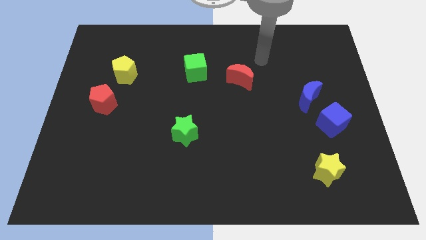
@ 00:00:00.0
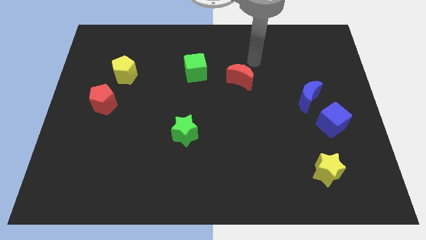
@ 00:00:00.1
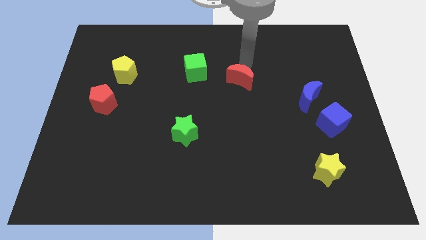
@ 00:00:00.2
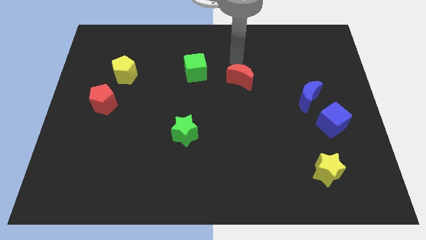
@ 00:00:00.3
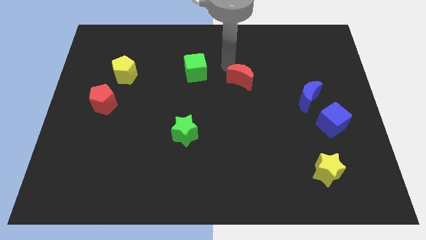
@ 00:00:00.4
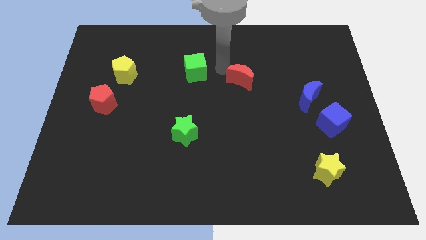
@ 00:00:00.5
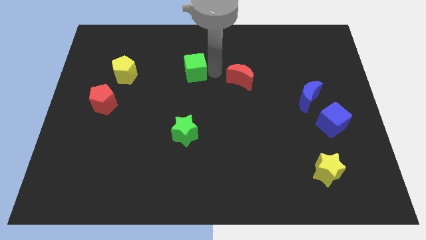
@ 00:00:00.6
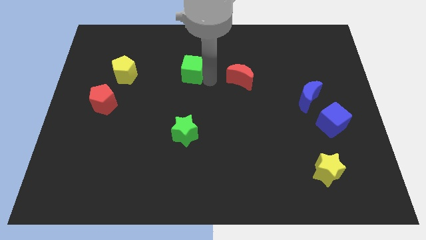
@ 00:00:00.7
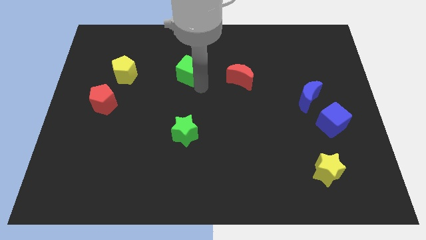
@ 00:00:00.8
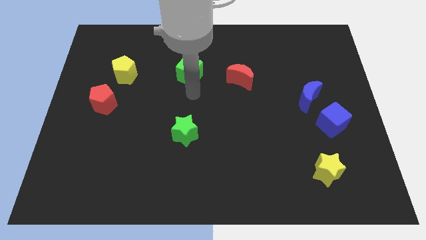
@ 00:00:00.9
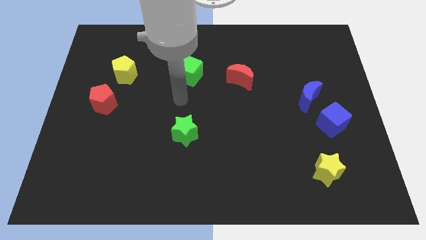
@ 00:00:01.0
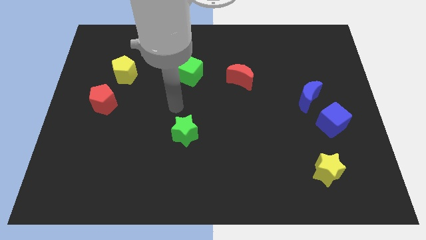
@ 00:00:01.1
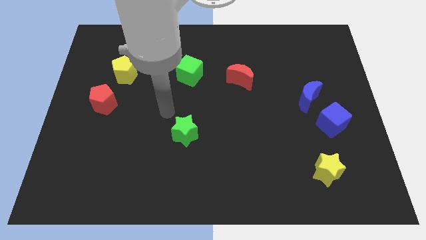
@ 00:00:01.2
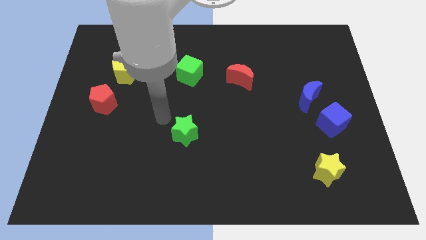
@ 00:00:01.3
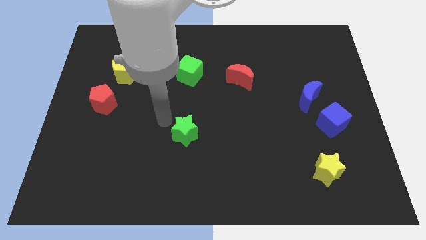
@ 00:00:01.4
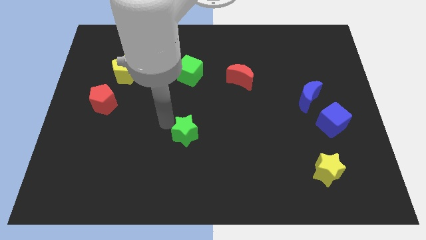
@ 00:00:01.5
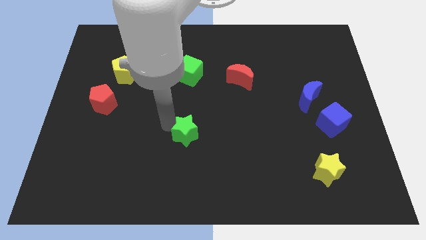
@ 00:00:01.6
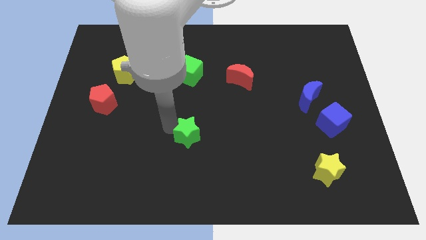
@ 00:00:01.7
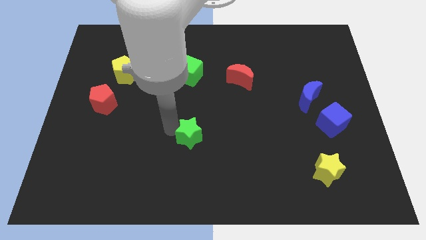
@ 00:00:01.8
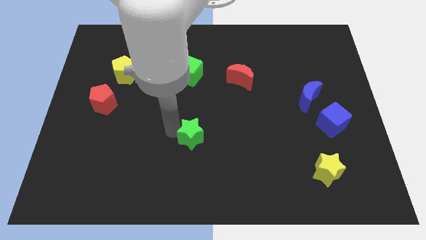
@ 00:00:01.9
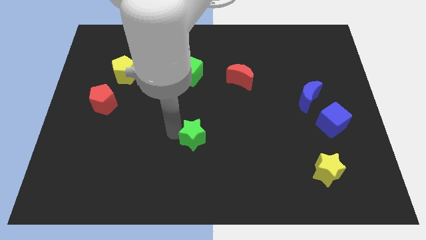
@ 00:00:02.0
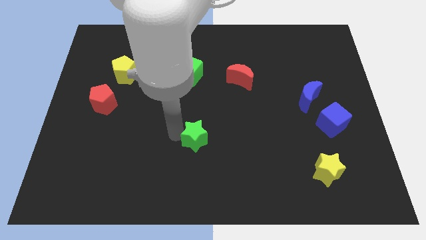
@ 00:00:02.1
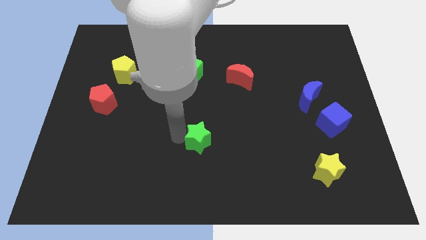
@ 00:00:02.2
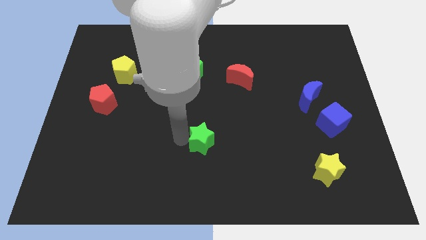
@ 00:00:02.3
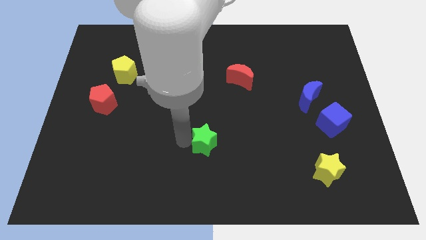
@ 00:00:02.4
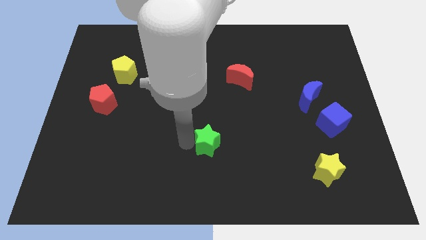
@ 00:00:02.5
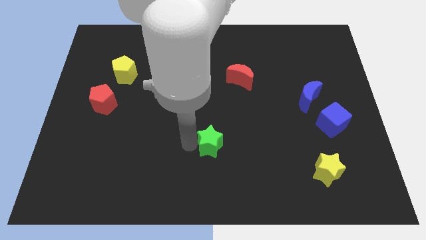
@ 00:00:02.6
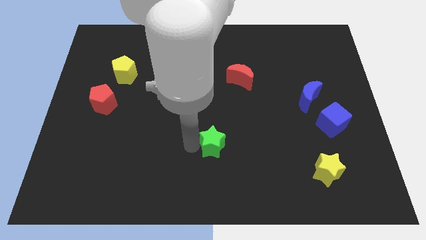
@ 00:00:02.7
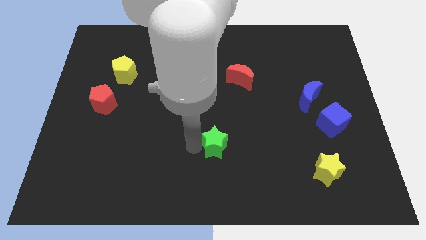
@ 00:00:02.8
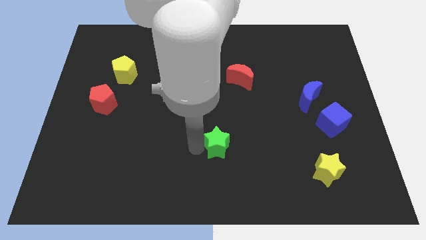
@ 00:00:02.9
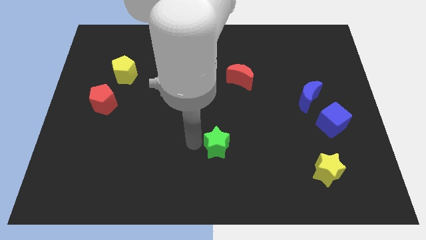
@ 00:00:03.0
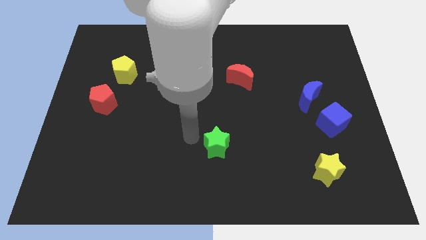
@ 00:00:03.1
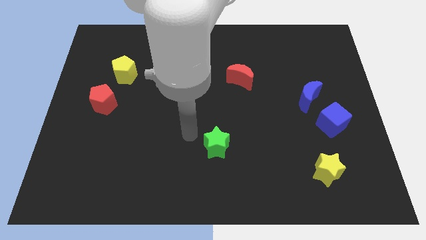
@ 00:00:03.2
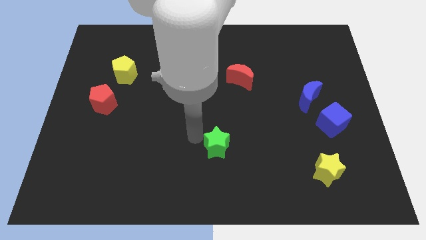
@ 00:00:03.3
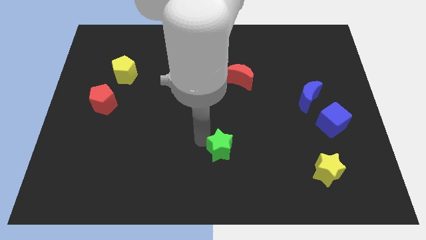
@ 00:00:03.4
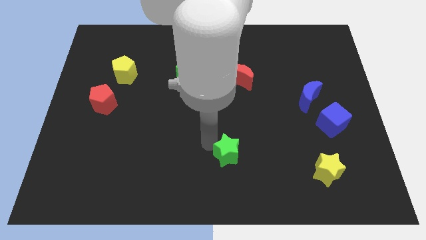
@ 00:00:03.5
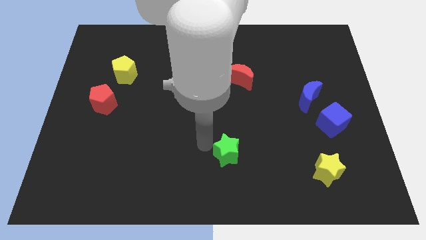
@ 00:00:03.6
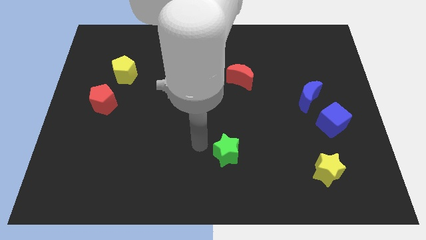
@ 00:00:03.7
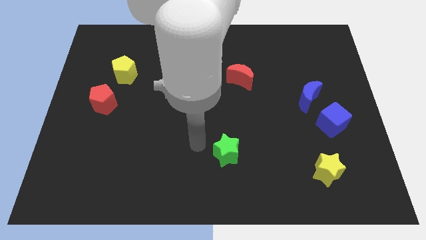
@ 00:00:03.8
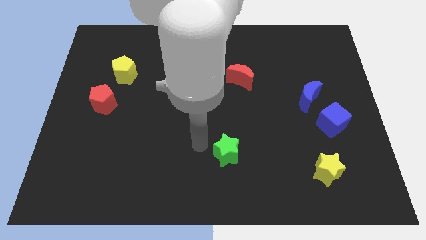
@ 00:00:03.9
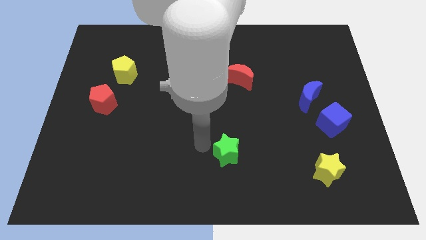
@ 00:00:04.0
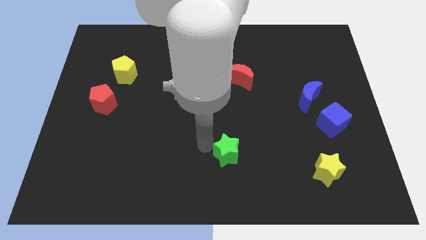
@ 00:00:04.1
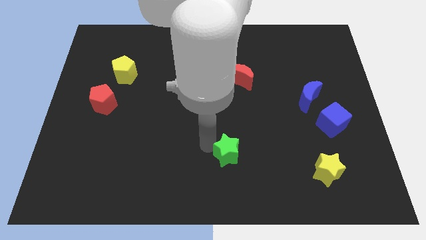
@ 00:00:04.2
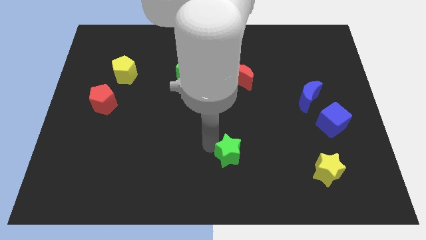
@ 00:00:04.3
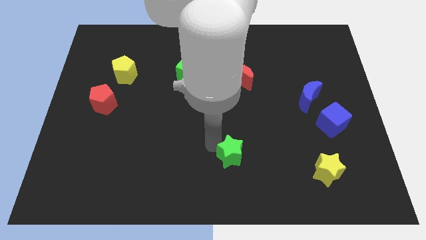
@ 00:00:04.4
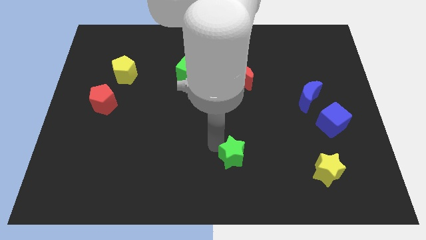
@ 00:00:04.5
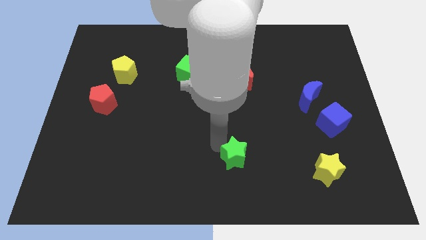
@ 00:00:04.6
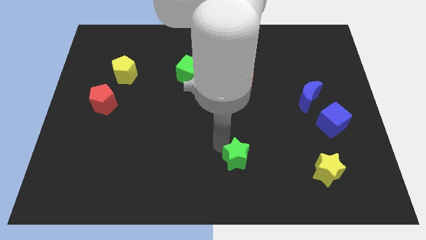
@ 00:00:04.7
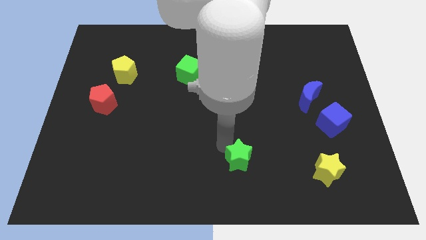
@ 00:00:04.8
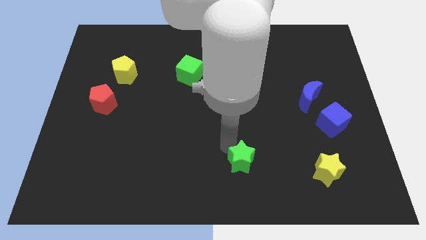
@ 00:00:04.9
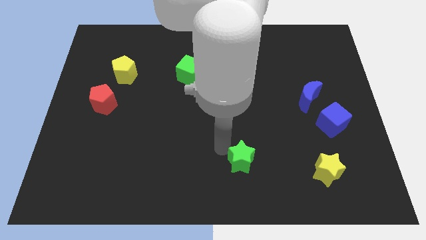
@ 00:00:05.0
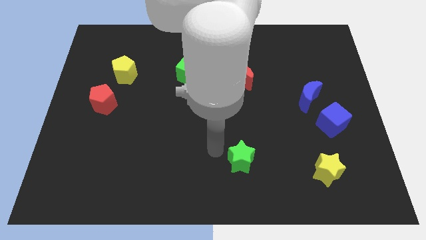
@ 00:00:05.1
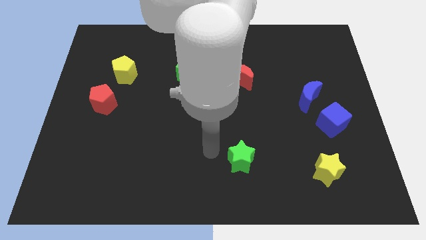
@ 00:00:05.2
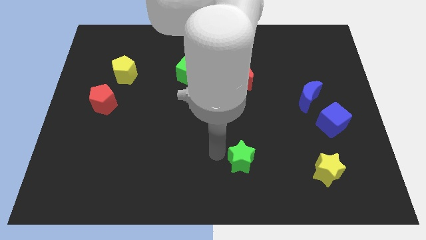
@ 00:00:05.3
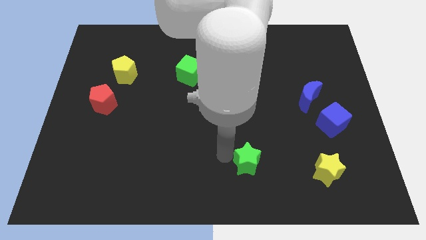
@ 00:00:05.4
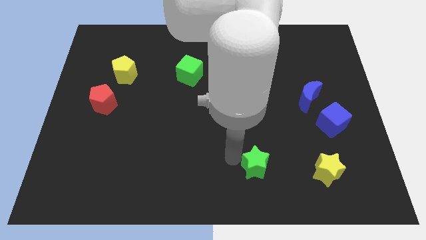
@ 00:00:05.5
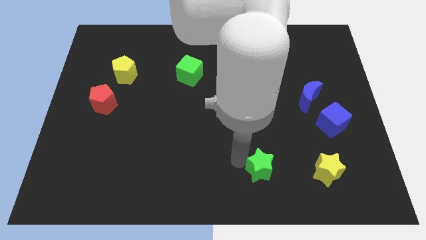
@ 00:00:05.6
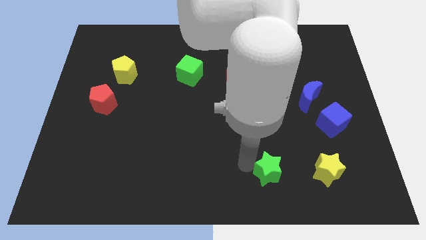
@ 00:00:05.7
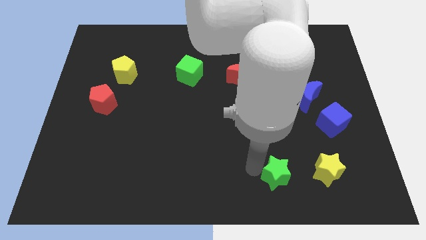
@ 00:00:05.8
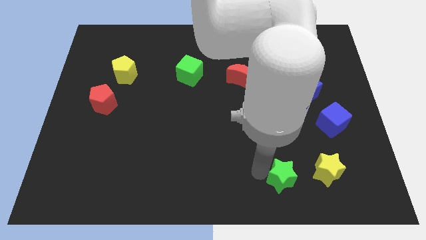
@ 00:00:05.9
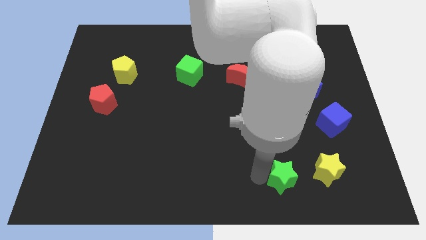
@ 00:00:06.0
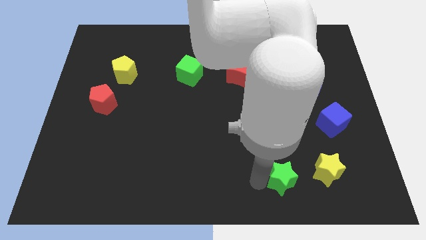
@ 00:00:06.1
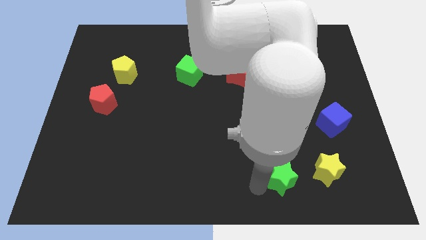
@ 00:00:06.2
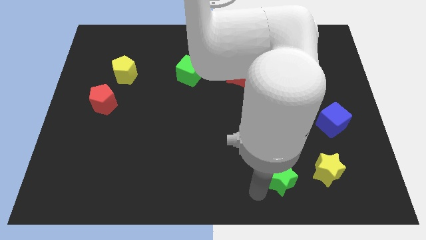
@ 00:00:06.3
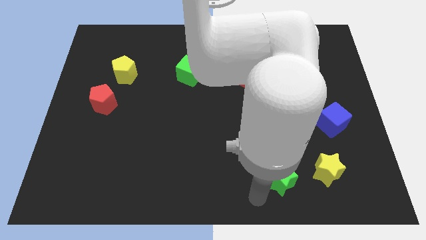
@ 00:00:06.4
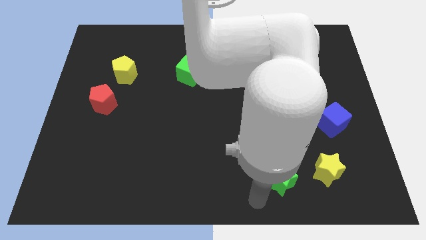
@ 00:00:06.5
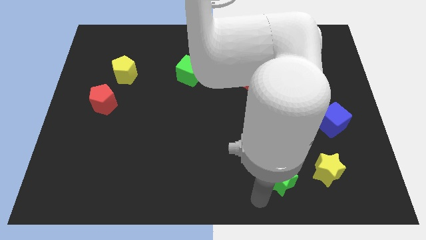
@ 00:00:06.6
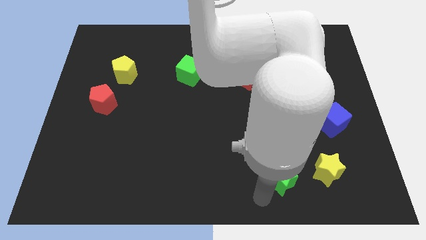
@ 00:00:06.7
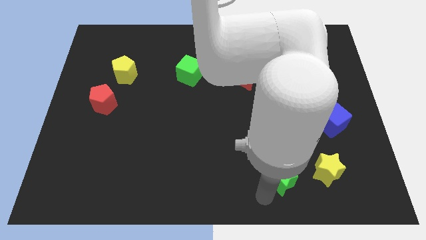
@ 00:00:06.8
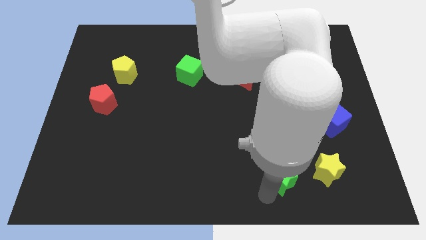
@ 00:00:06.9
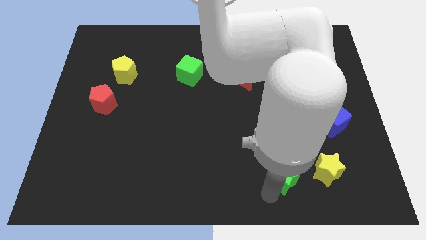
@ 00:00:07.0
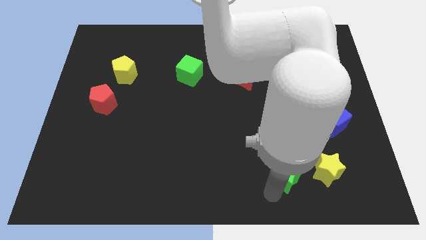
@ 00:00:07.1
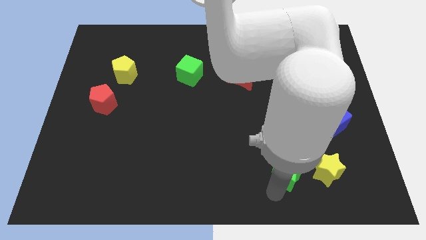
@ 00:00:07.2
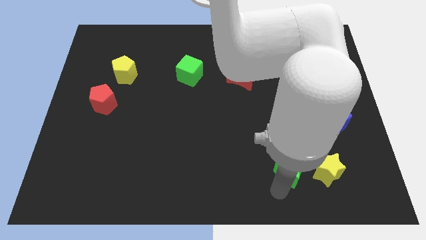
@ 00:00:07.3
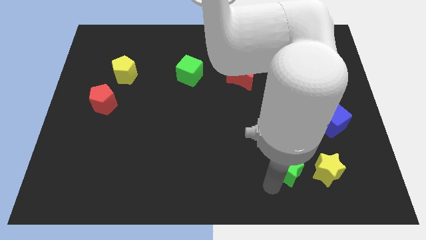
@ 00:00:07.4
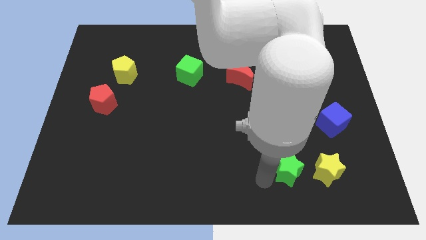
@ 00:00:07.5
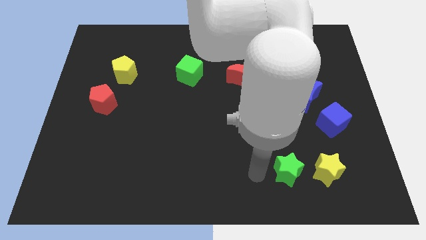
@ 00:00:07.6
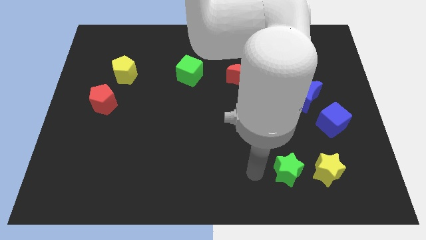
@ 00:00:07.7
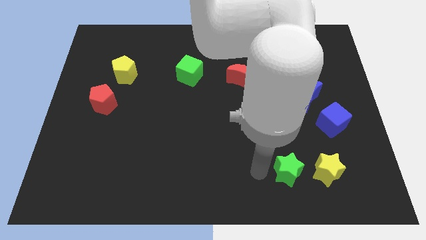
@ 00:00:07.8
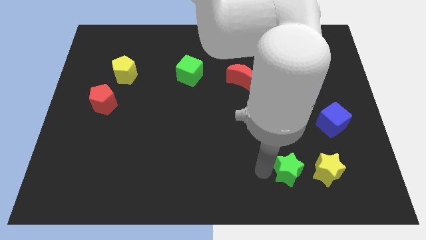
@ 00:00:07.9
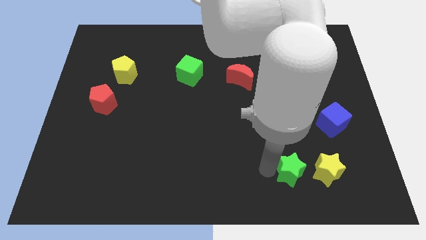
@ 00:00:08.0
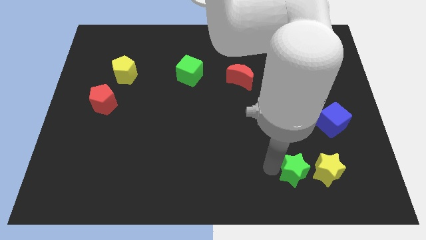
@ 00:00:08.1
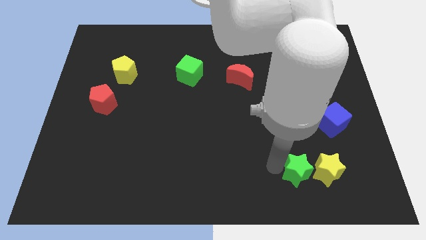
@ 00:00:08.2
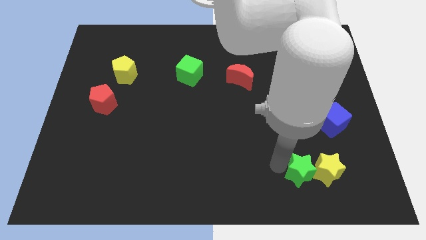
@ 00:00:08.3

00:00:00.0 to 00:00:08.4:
slide the green star close to the yellow star
